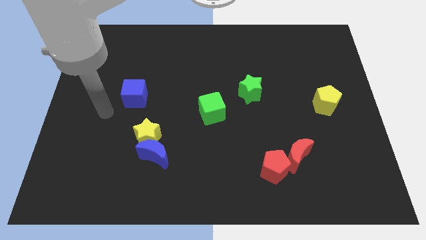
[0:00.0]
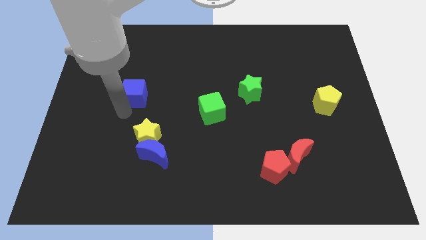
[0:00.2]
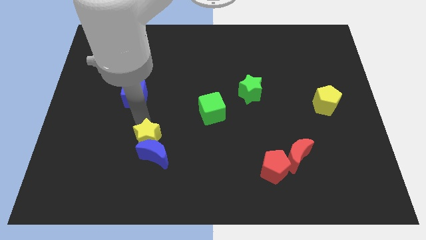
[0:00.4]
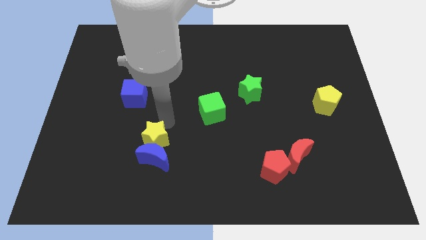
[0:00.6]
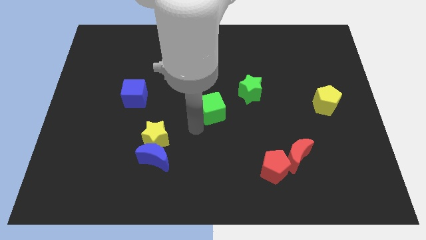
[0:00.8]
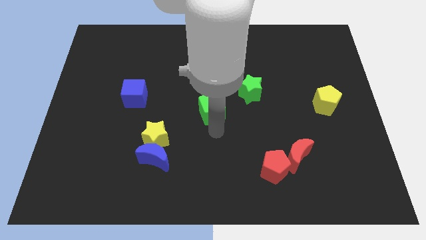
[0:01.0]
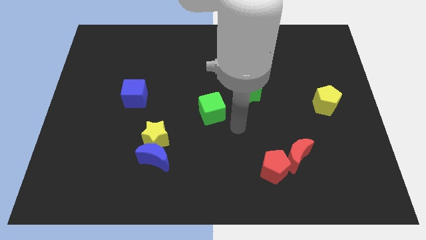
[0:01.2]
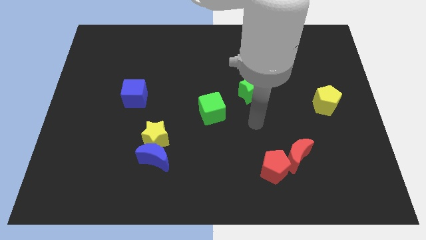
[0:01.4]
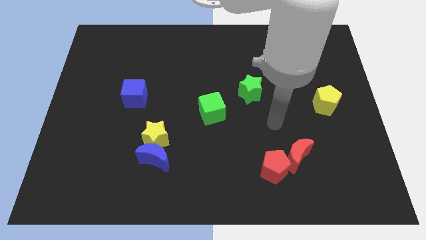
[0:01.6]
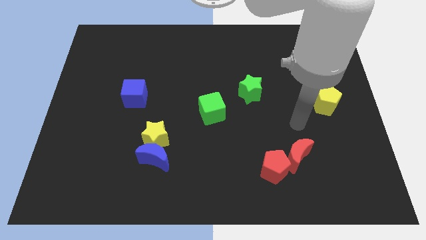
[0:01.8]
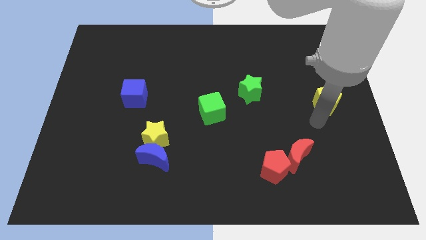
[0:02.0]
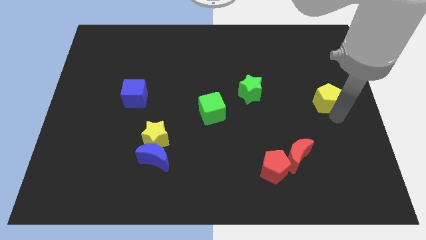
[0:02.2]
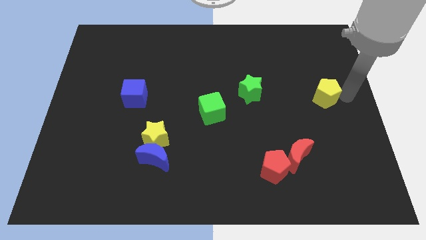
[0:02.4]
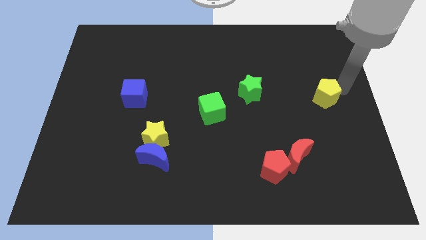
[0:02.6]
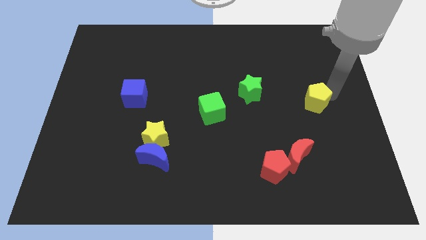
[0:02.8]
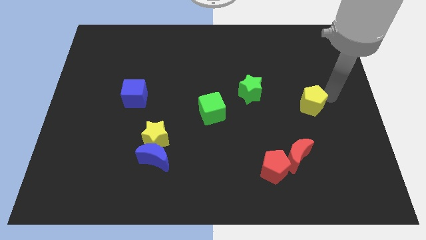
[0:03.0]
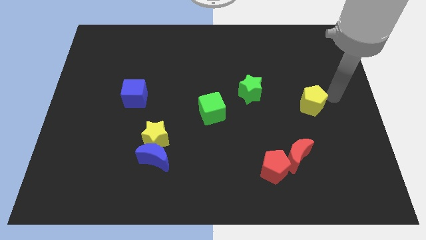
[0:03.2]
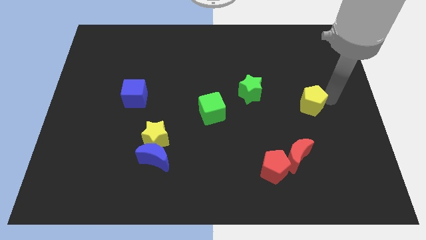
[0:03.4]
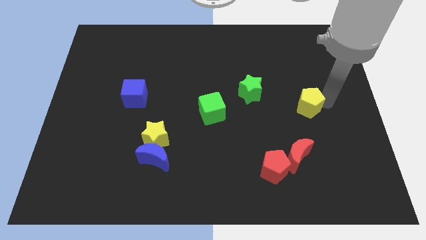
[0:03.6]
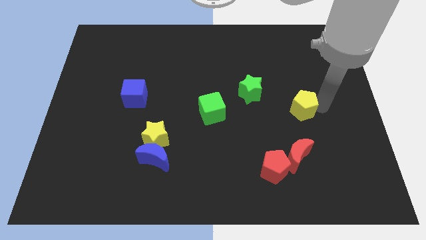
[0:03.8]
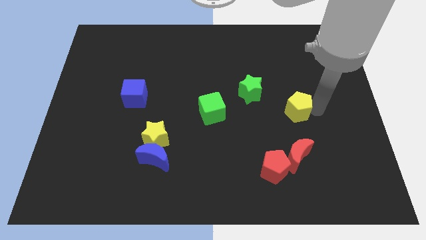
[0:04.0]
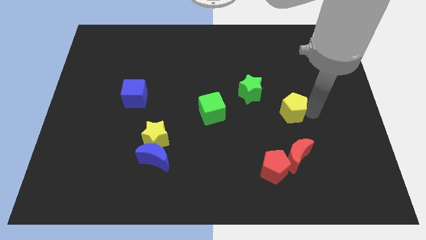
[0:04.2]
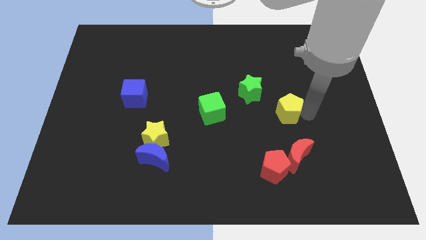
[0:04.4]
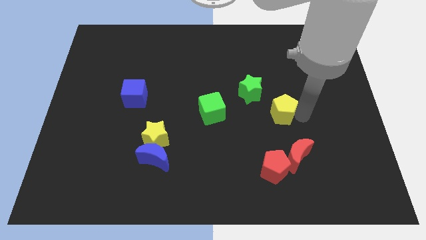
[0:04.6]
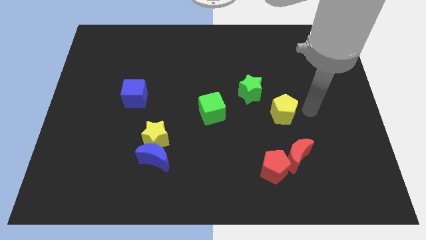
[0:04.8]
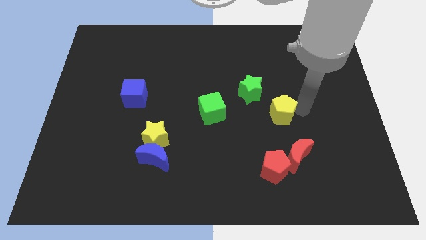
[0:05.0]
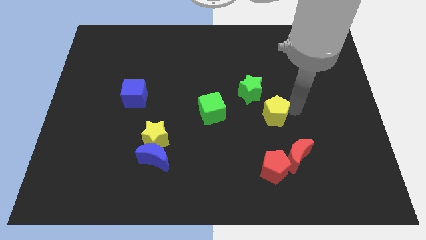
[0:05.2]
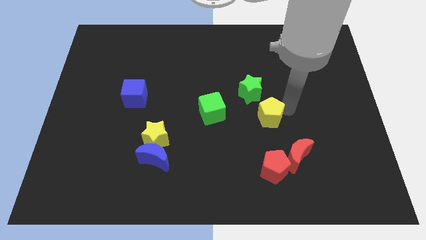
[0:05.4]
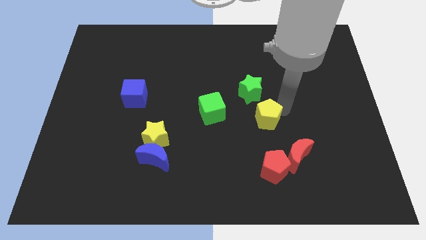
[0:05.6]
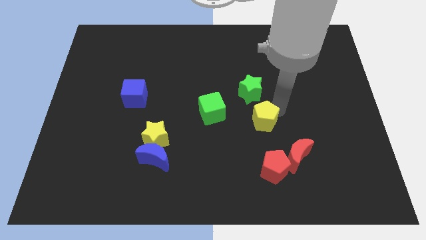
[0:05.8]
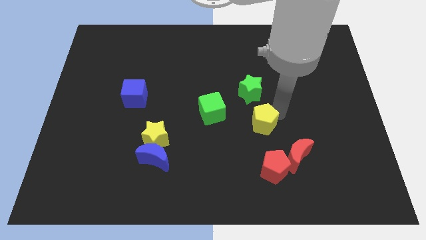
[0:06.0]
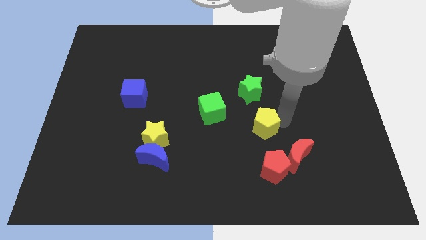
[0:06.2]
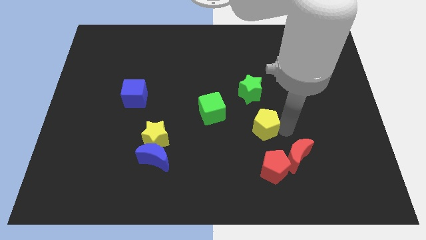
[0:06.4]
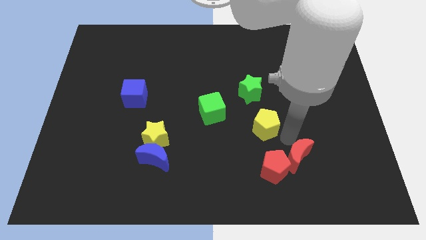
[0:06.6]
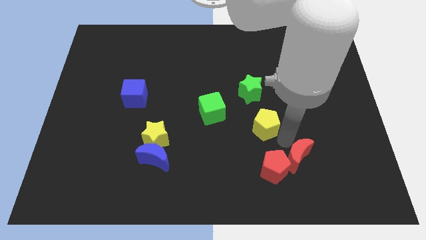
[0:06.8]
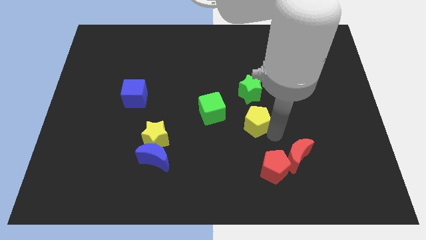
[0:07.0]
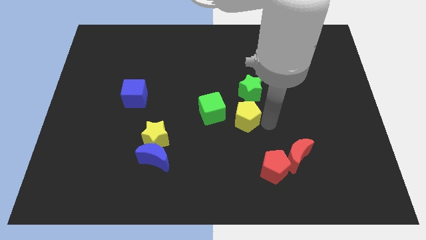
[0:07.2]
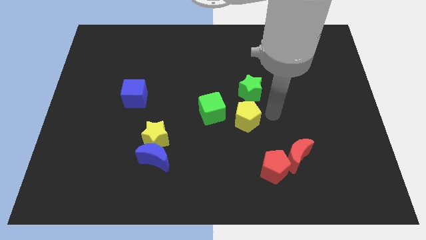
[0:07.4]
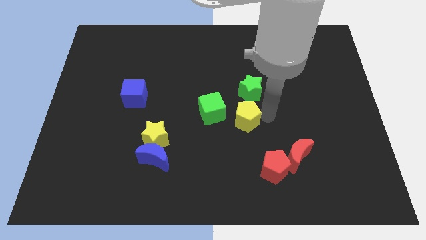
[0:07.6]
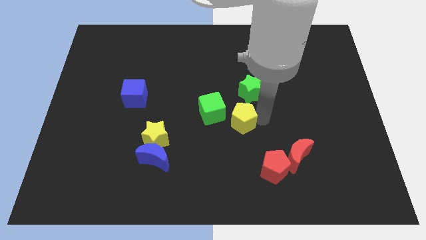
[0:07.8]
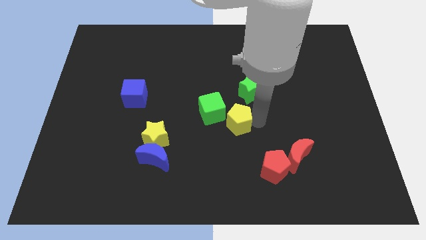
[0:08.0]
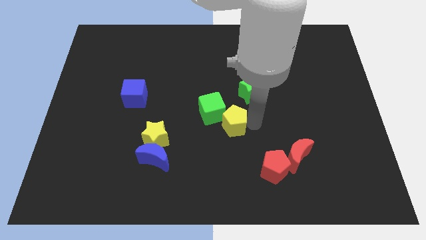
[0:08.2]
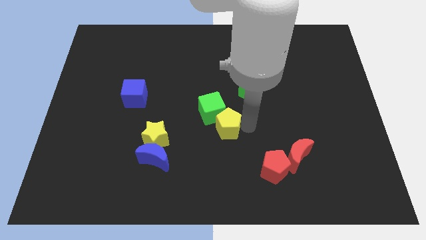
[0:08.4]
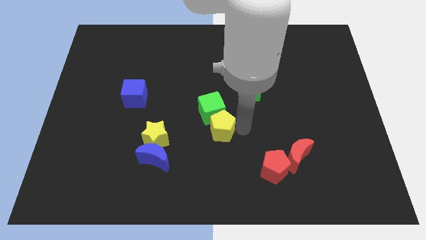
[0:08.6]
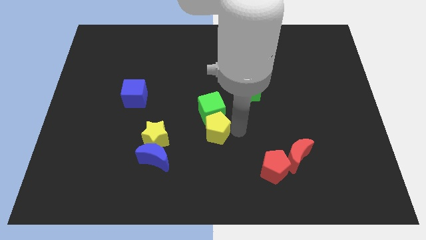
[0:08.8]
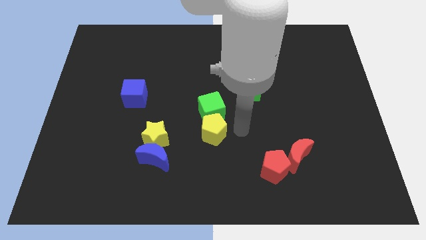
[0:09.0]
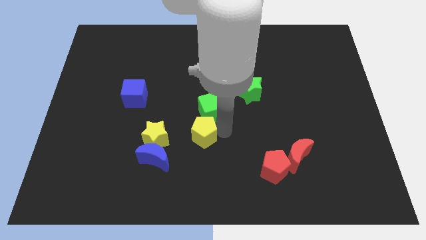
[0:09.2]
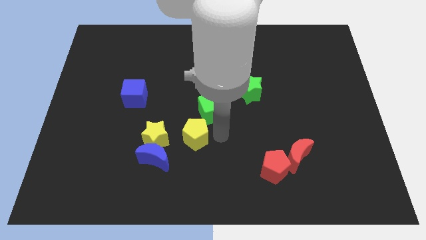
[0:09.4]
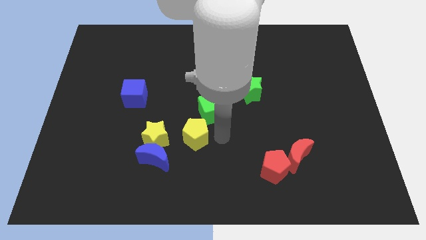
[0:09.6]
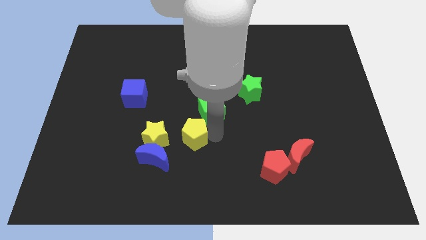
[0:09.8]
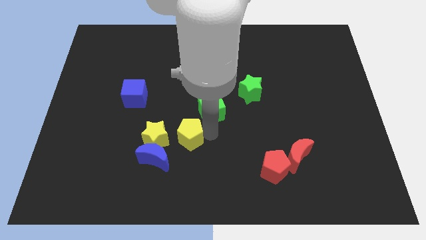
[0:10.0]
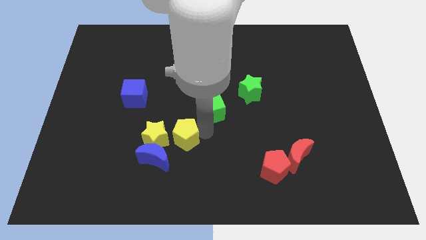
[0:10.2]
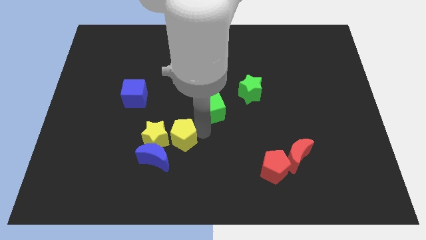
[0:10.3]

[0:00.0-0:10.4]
push the yellow pentagon close to the yellow star

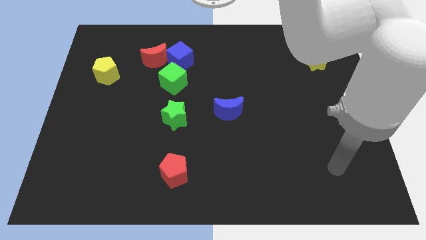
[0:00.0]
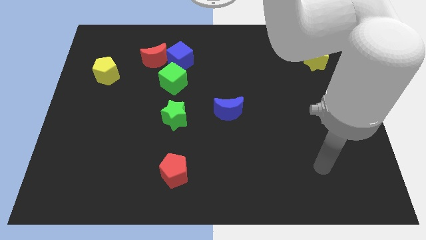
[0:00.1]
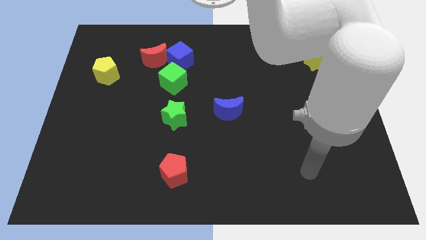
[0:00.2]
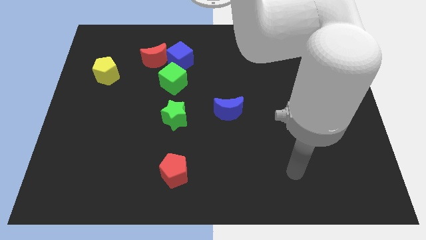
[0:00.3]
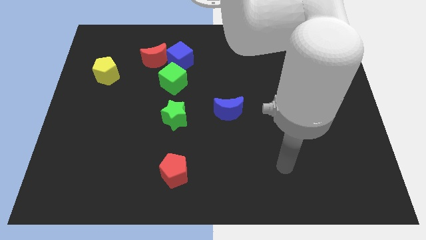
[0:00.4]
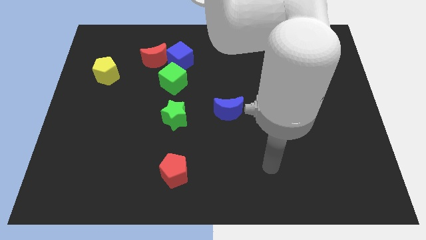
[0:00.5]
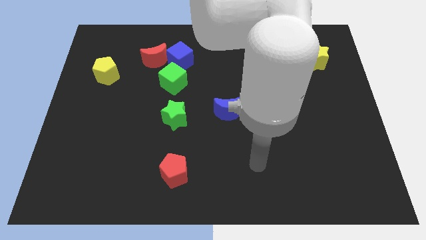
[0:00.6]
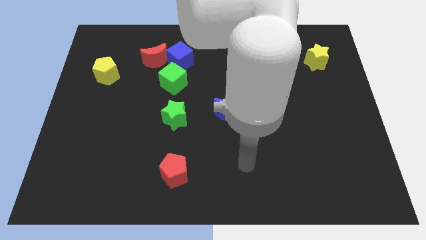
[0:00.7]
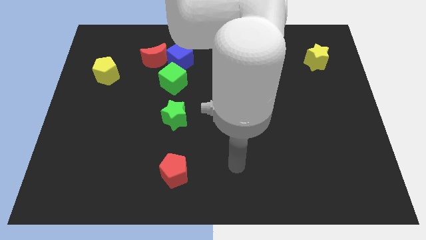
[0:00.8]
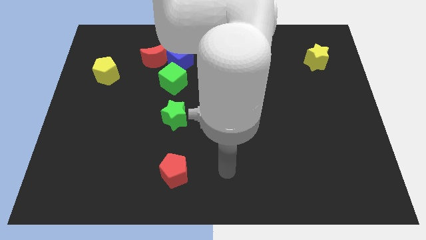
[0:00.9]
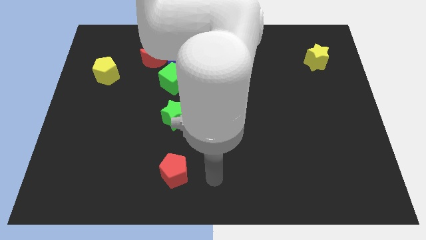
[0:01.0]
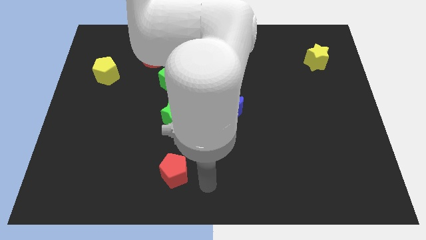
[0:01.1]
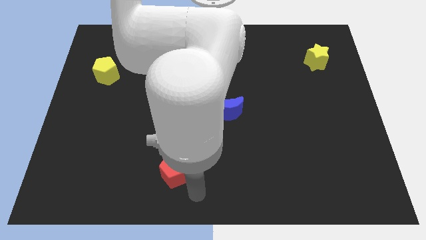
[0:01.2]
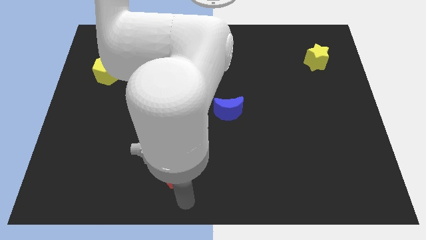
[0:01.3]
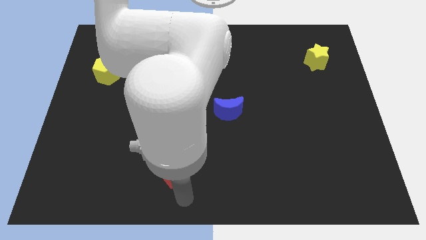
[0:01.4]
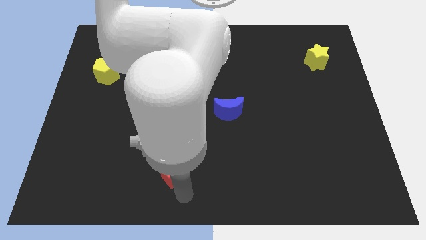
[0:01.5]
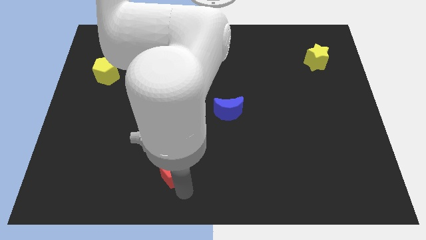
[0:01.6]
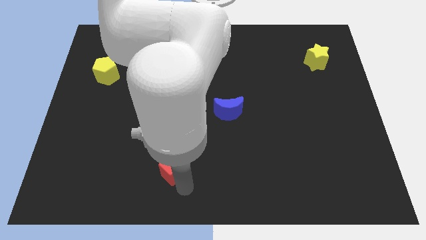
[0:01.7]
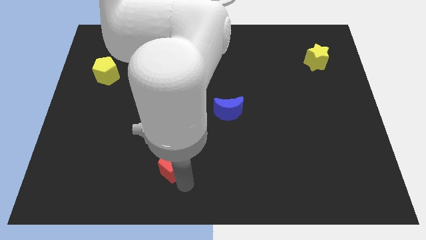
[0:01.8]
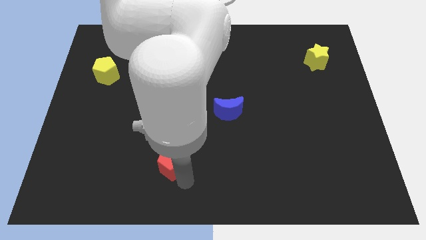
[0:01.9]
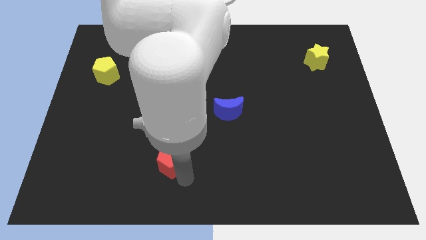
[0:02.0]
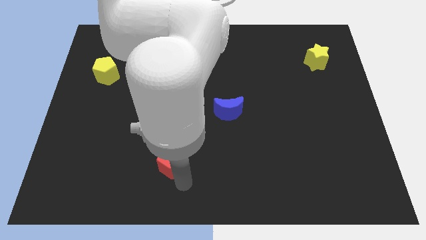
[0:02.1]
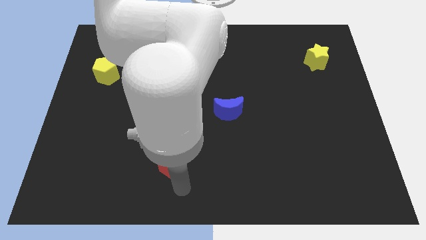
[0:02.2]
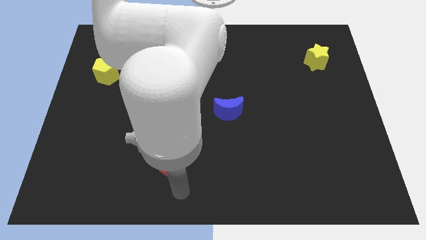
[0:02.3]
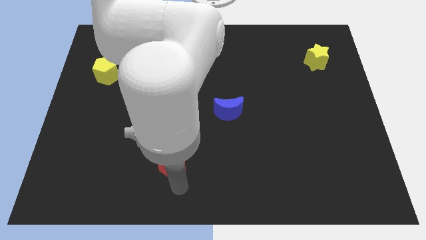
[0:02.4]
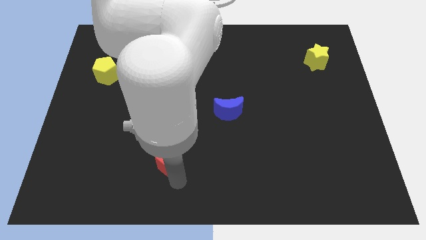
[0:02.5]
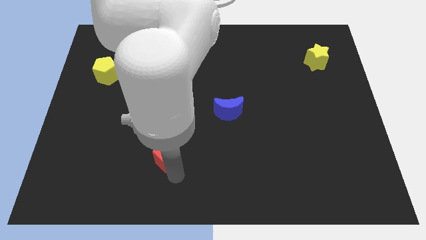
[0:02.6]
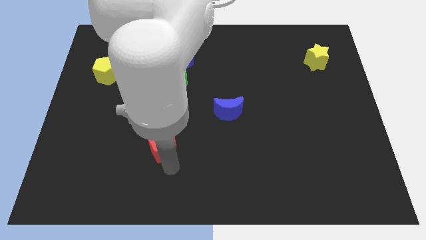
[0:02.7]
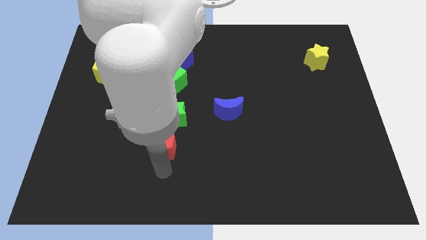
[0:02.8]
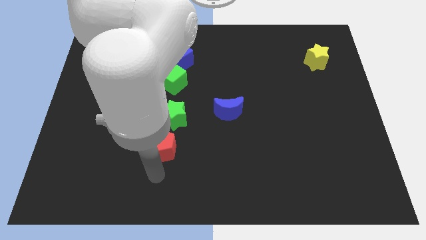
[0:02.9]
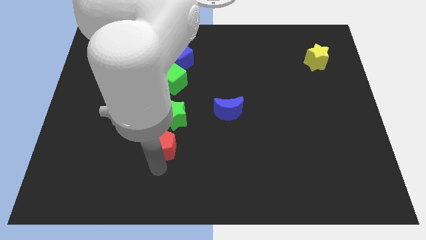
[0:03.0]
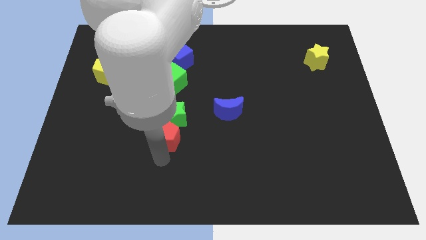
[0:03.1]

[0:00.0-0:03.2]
push the red pentagon next to the green star
